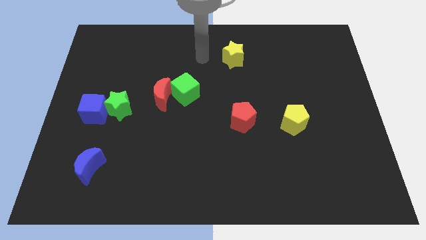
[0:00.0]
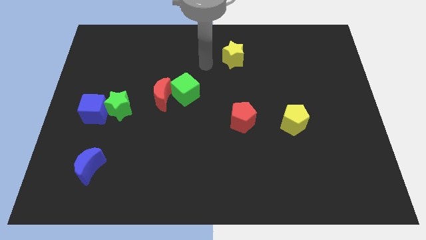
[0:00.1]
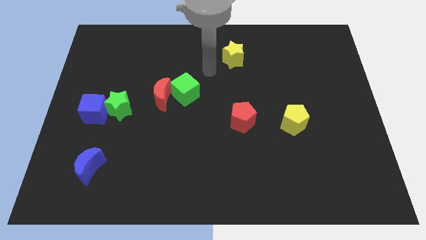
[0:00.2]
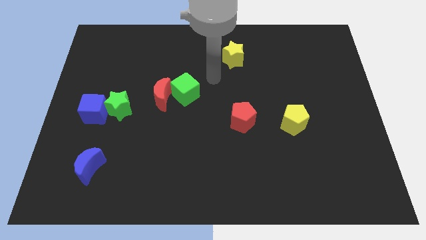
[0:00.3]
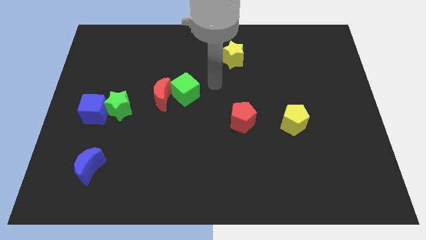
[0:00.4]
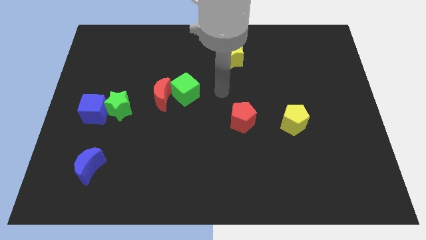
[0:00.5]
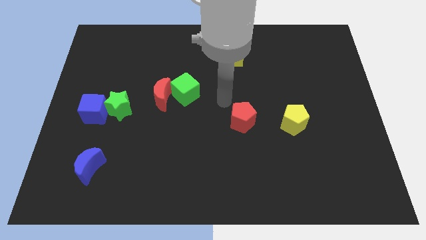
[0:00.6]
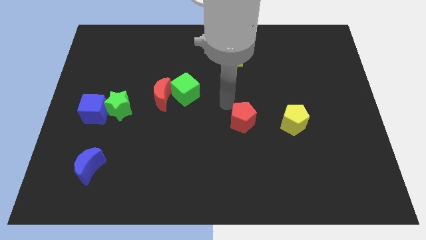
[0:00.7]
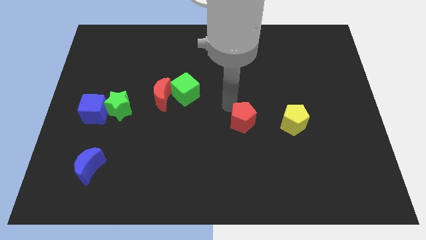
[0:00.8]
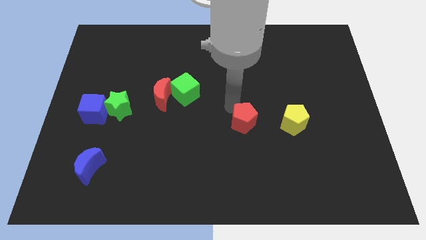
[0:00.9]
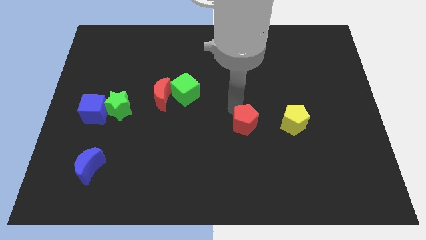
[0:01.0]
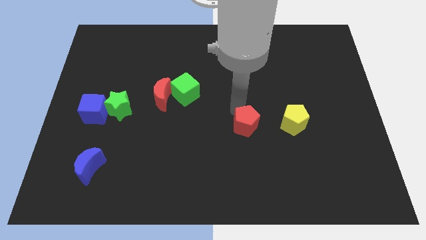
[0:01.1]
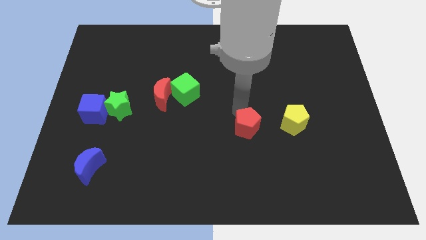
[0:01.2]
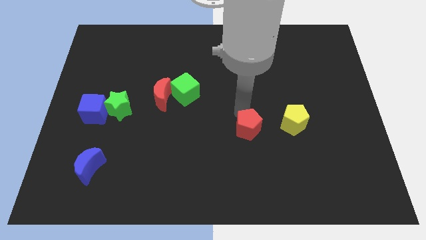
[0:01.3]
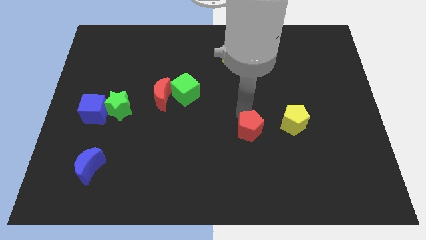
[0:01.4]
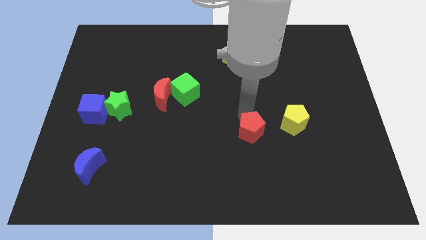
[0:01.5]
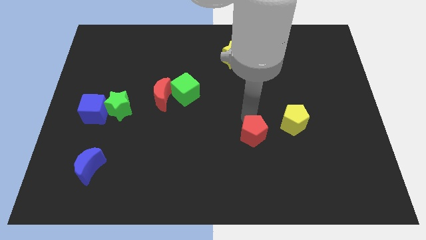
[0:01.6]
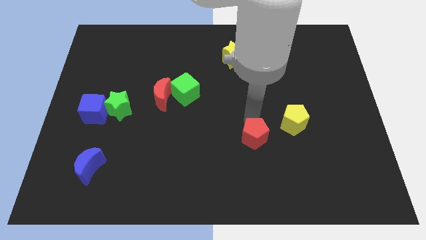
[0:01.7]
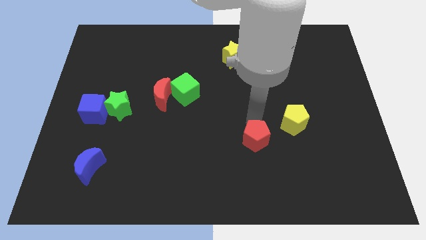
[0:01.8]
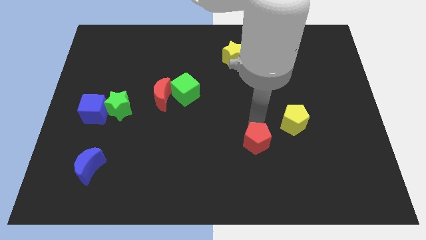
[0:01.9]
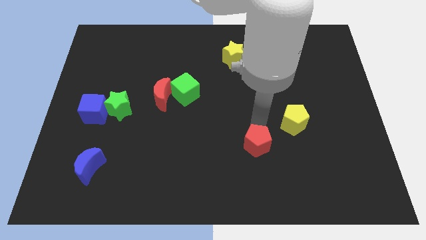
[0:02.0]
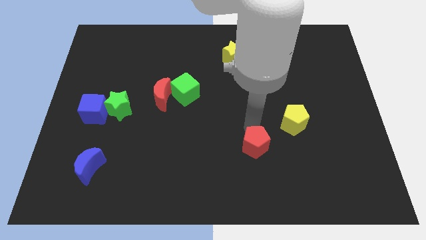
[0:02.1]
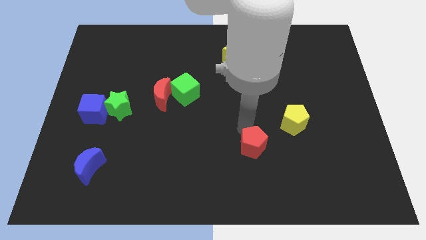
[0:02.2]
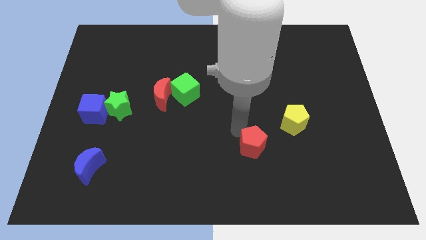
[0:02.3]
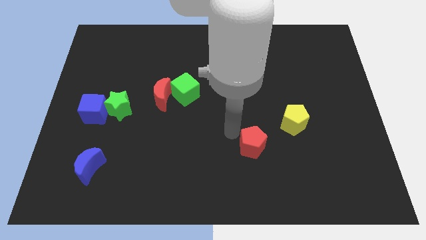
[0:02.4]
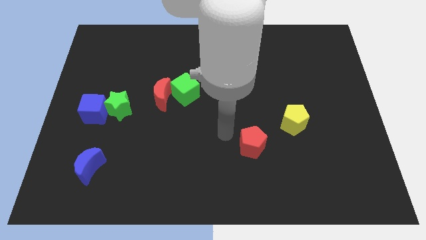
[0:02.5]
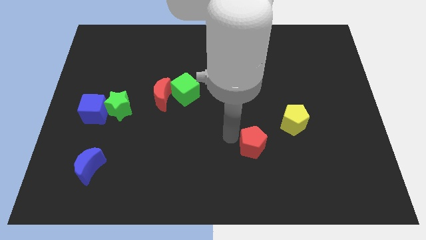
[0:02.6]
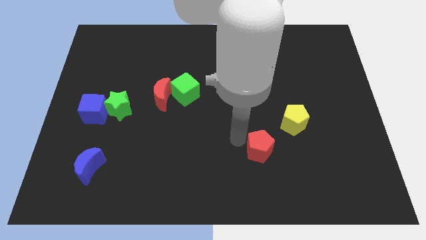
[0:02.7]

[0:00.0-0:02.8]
slide the red pentagon diagonally downwards and right slightly

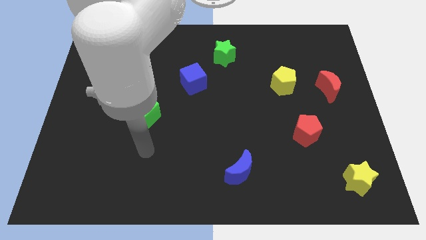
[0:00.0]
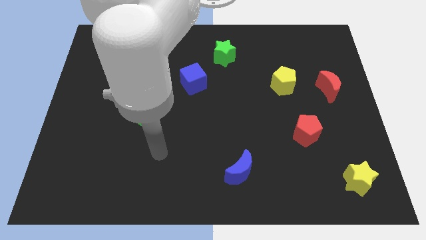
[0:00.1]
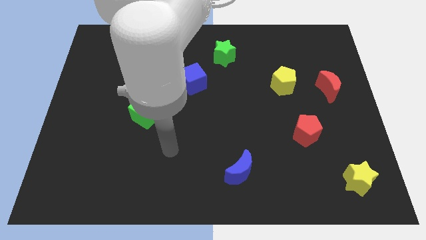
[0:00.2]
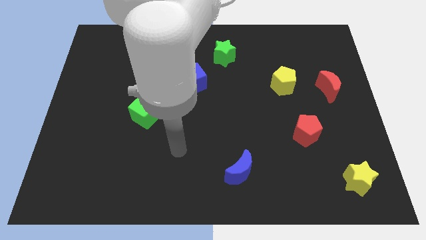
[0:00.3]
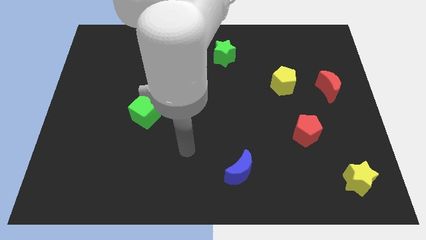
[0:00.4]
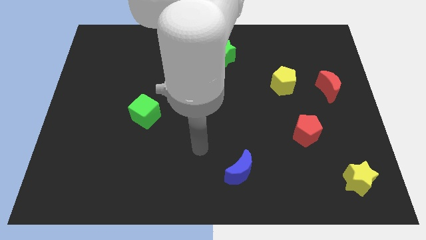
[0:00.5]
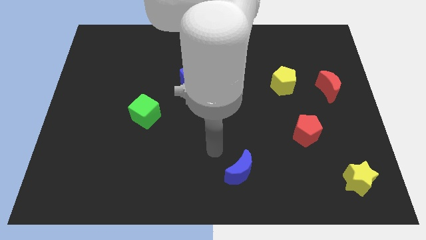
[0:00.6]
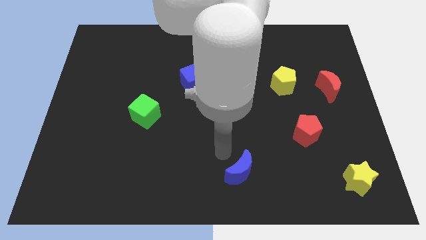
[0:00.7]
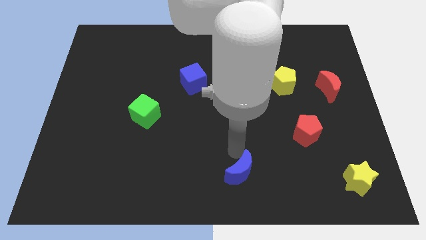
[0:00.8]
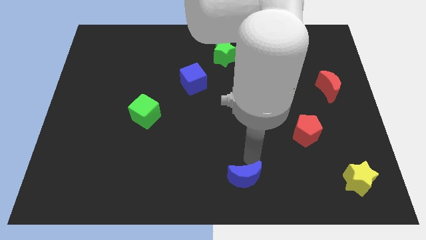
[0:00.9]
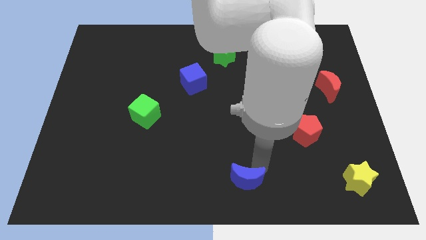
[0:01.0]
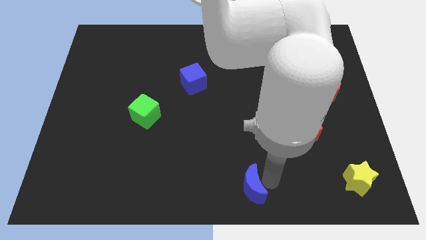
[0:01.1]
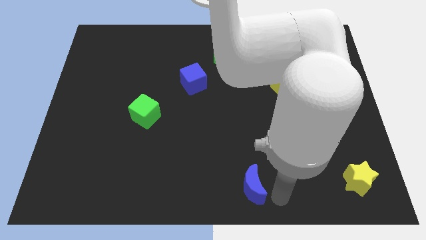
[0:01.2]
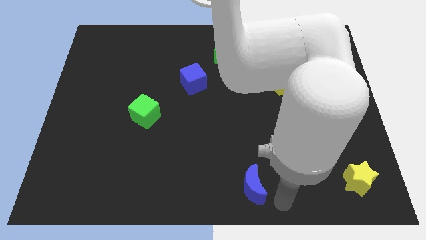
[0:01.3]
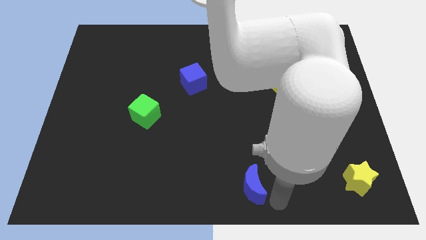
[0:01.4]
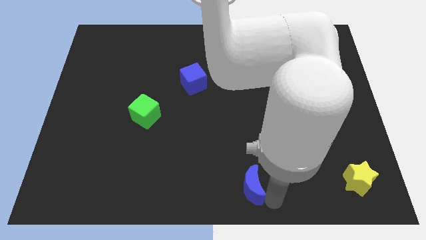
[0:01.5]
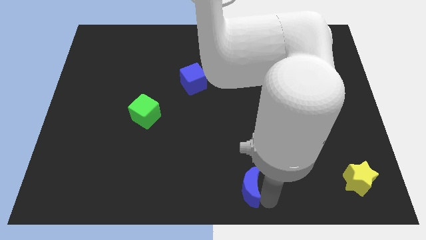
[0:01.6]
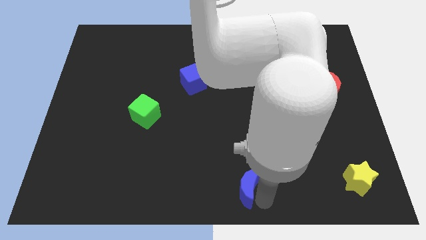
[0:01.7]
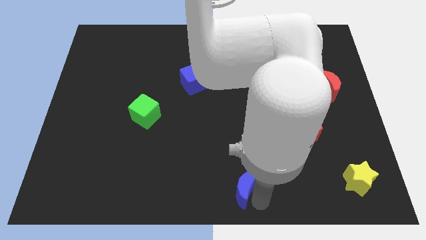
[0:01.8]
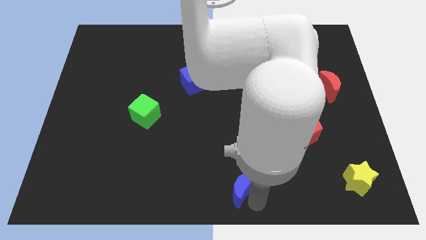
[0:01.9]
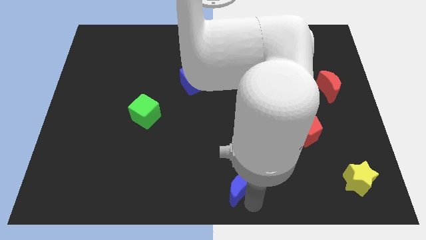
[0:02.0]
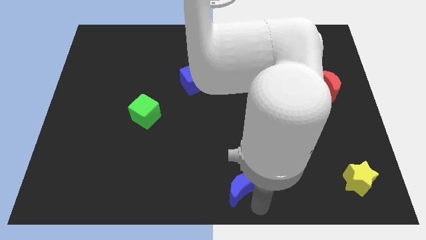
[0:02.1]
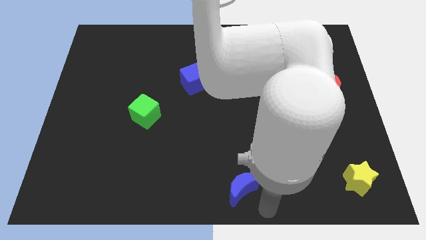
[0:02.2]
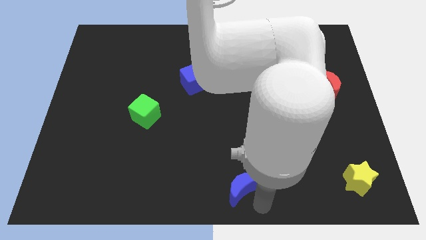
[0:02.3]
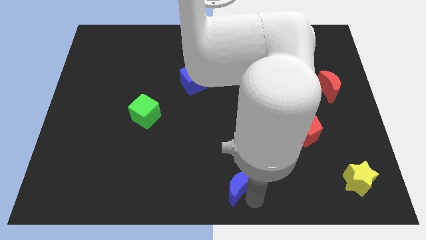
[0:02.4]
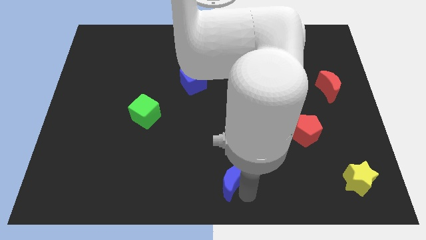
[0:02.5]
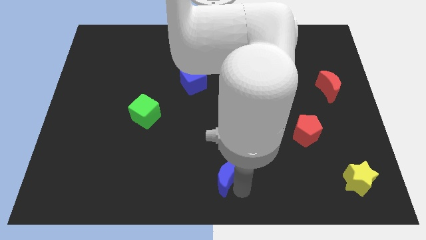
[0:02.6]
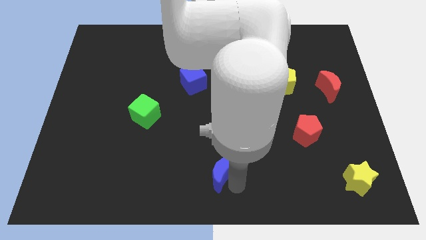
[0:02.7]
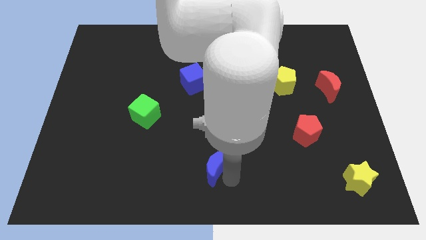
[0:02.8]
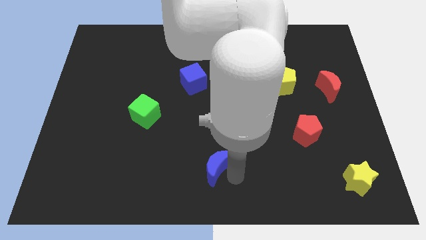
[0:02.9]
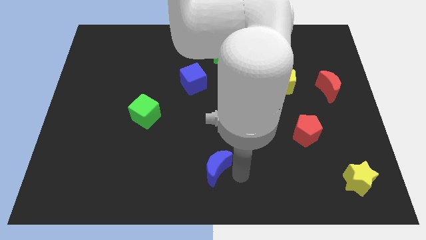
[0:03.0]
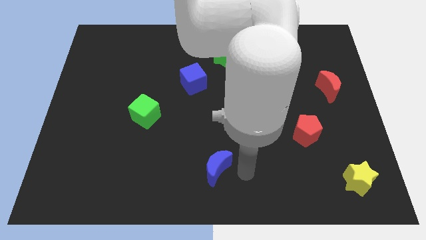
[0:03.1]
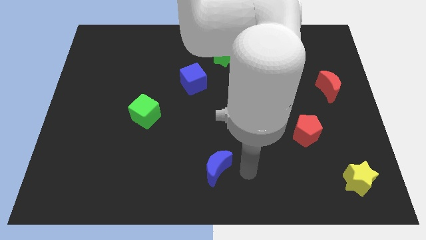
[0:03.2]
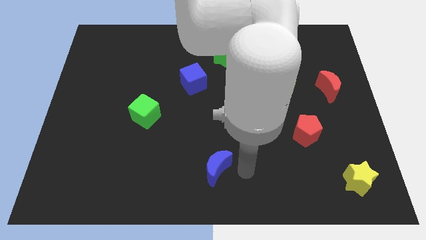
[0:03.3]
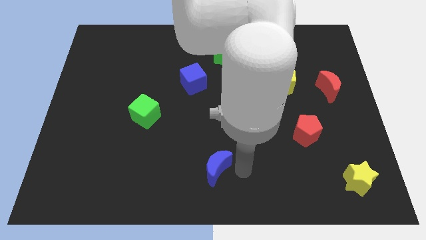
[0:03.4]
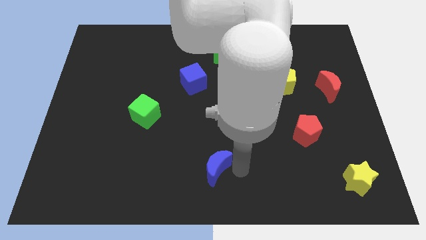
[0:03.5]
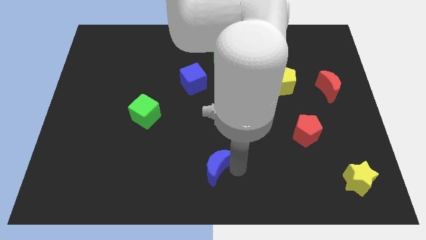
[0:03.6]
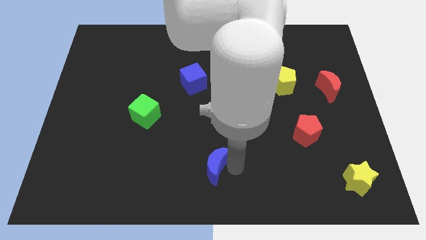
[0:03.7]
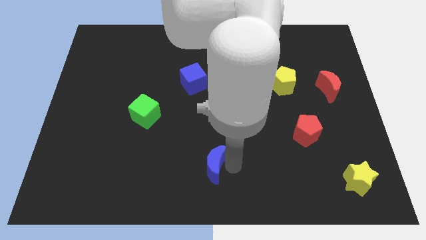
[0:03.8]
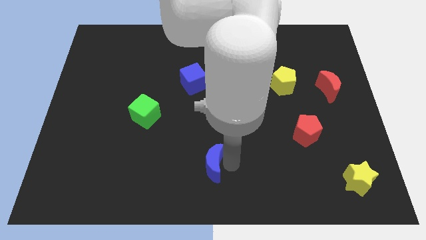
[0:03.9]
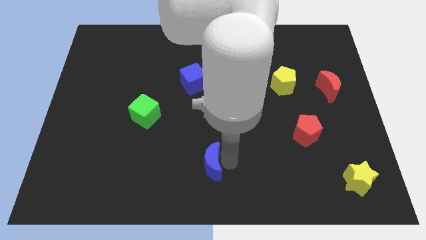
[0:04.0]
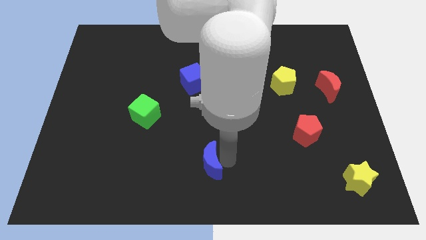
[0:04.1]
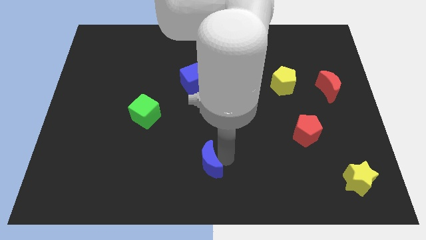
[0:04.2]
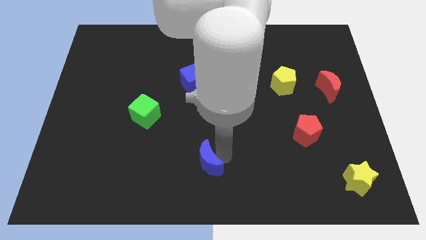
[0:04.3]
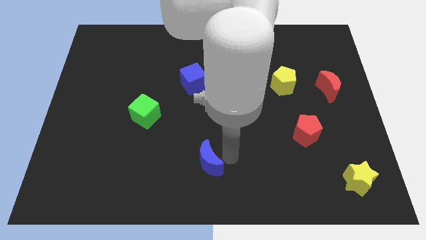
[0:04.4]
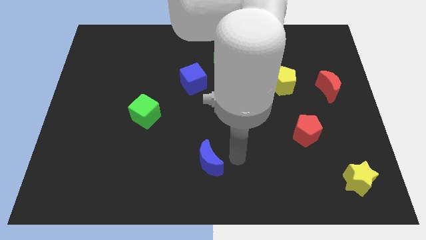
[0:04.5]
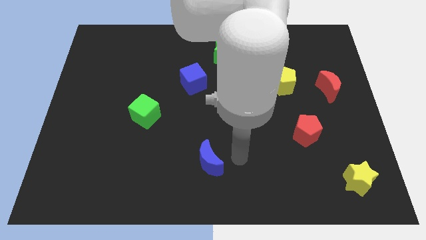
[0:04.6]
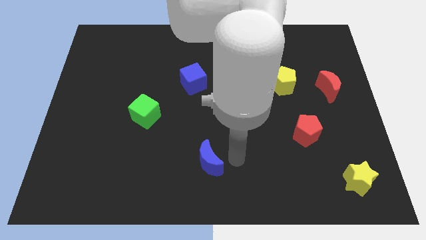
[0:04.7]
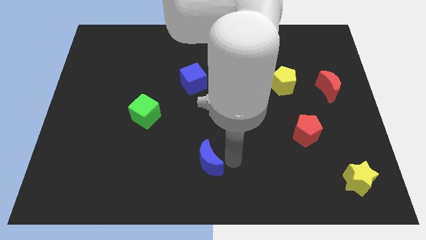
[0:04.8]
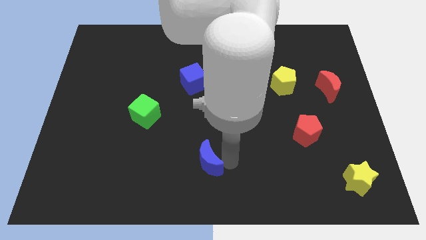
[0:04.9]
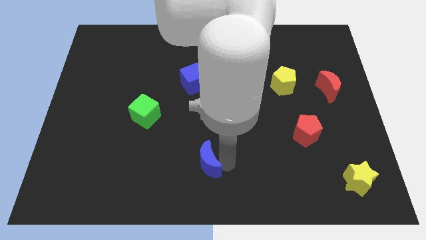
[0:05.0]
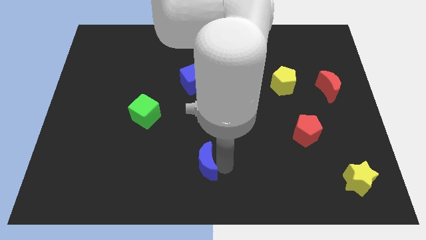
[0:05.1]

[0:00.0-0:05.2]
slightly push the blue moon to the left
